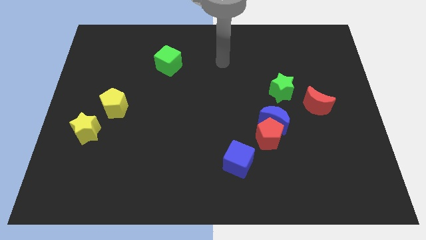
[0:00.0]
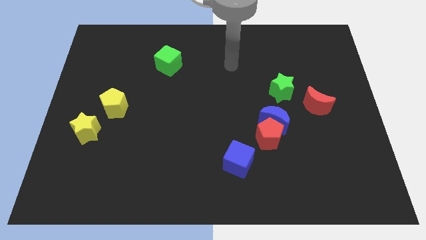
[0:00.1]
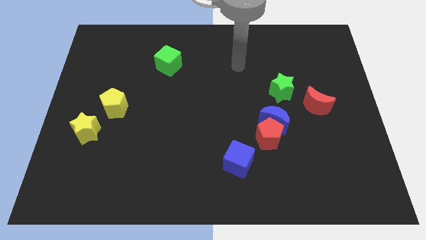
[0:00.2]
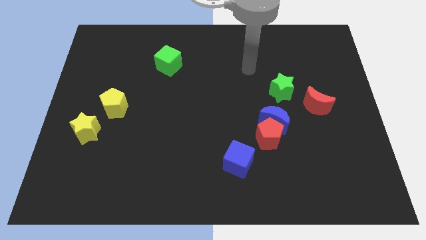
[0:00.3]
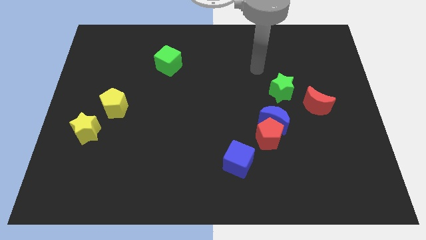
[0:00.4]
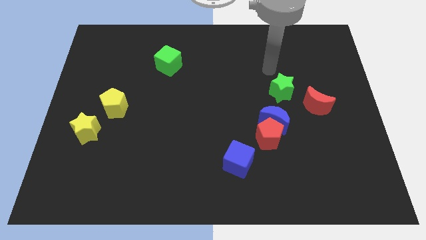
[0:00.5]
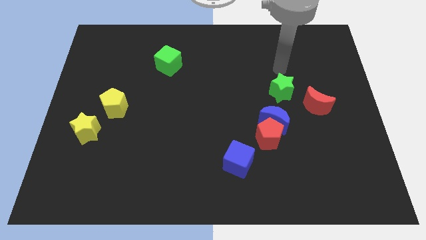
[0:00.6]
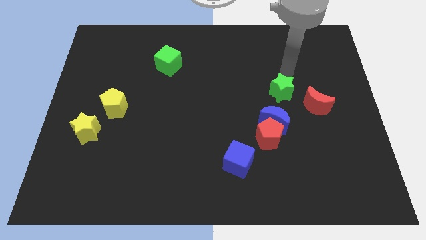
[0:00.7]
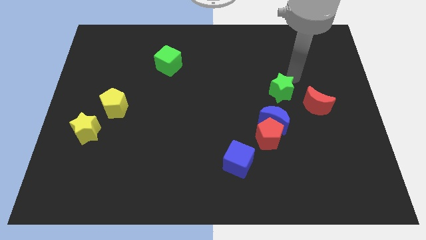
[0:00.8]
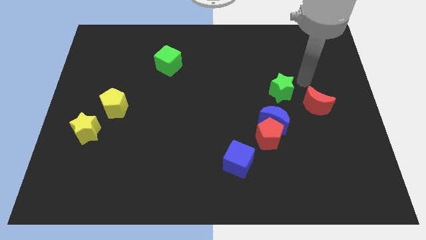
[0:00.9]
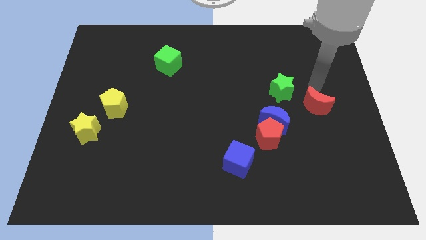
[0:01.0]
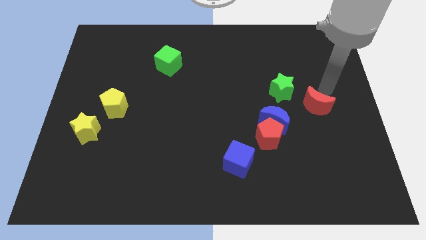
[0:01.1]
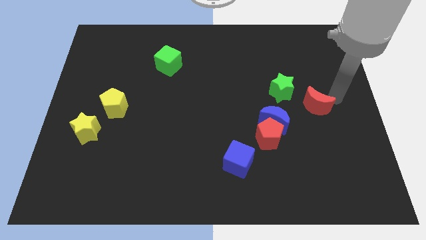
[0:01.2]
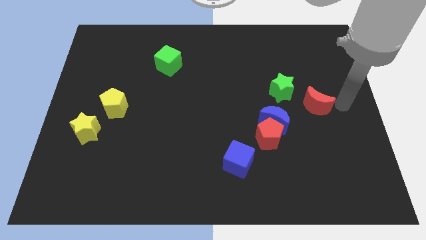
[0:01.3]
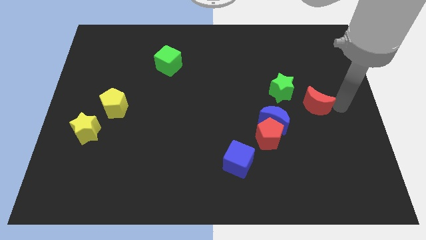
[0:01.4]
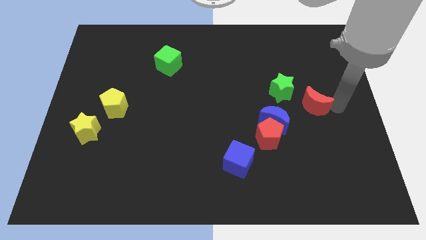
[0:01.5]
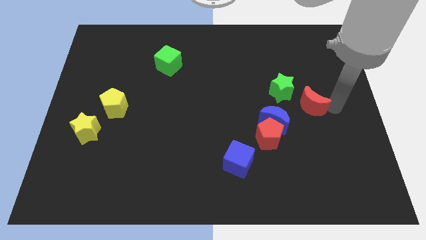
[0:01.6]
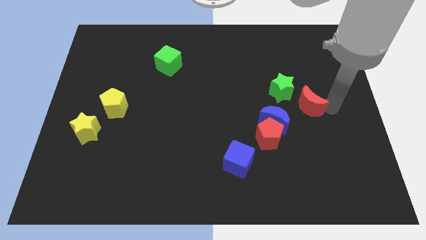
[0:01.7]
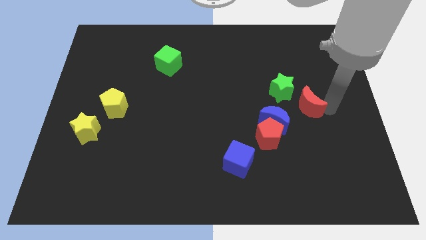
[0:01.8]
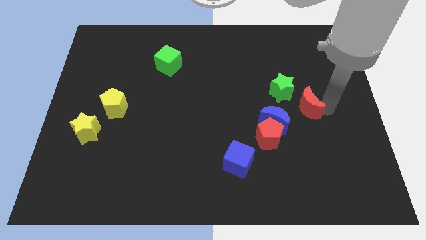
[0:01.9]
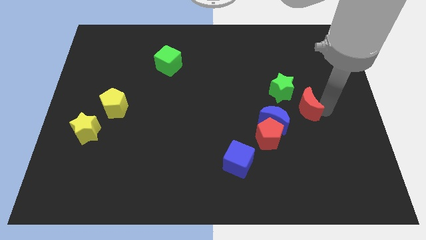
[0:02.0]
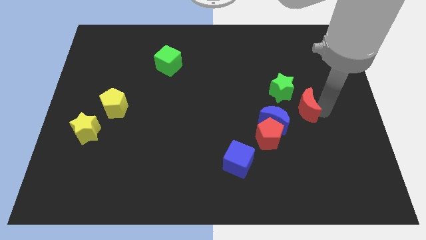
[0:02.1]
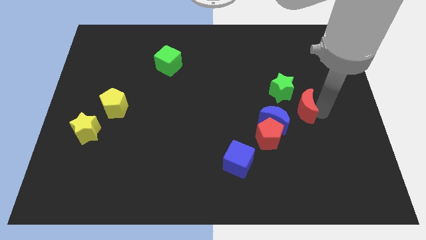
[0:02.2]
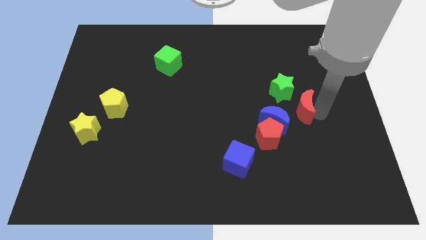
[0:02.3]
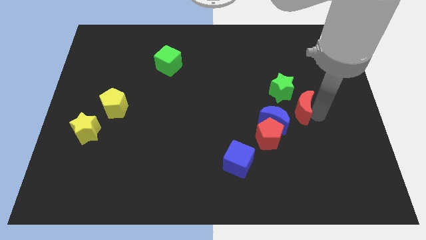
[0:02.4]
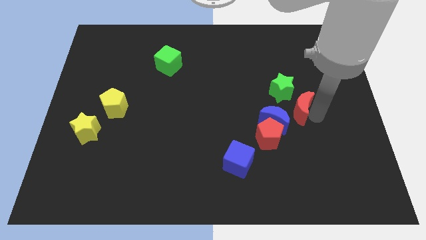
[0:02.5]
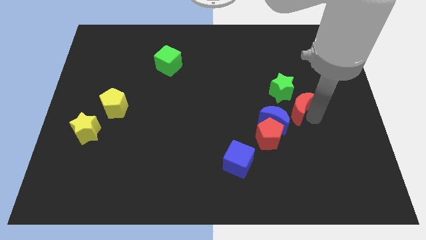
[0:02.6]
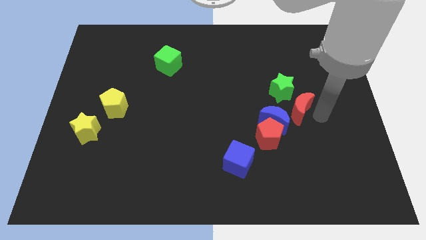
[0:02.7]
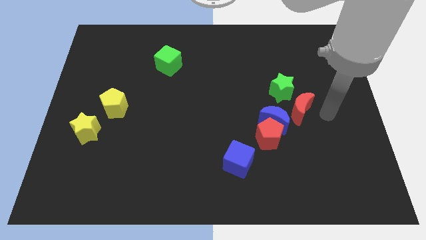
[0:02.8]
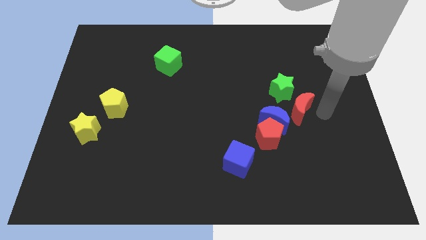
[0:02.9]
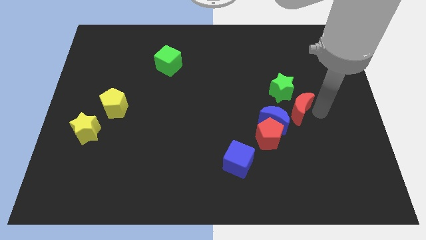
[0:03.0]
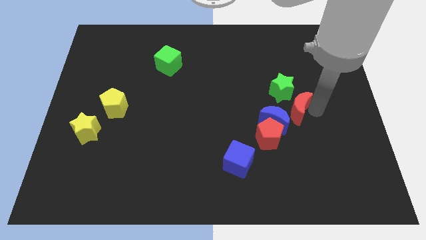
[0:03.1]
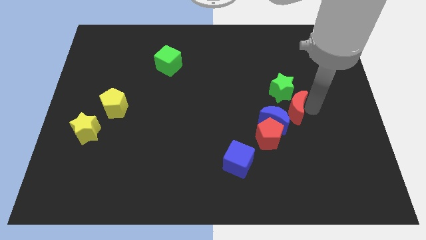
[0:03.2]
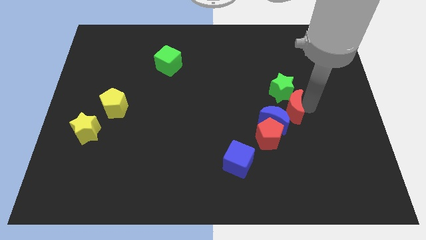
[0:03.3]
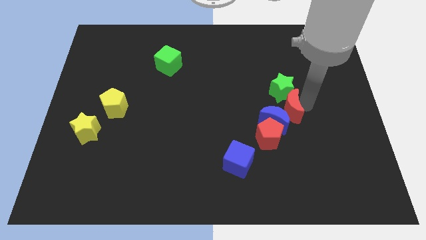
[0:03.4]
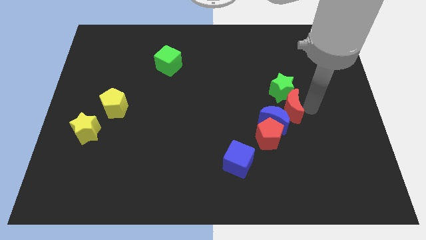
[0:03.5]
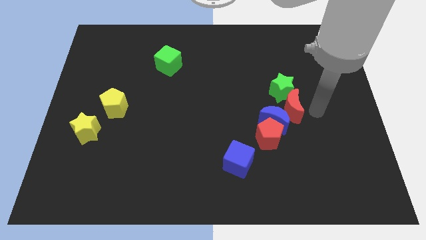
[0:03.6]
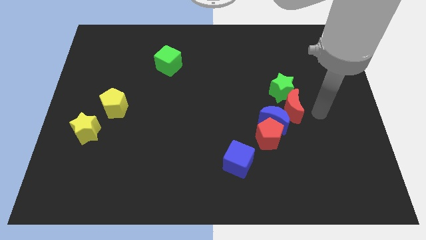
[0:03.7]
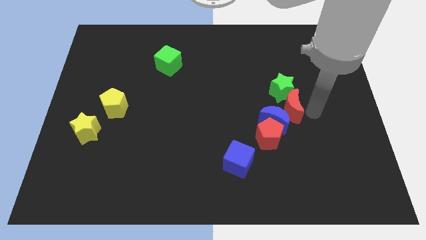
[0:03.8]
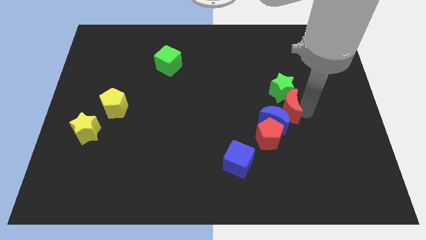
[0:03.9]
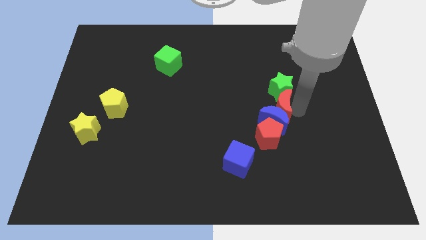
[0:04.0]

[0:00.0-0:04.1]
slide the red moon a bit to the left

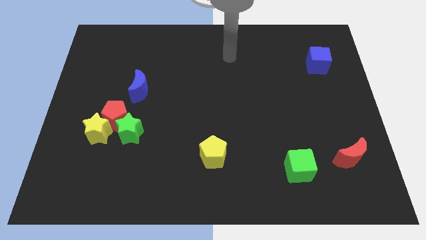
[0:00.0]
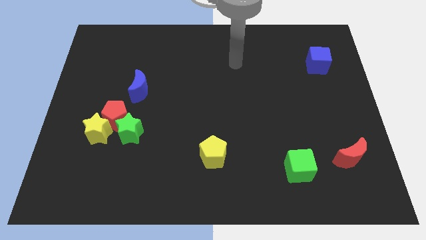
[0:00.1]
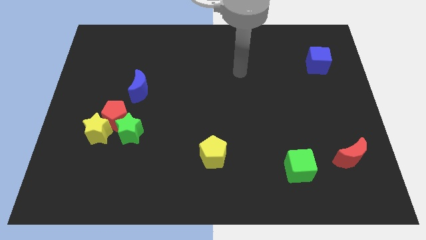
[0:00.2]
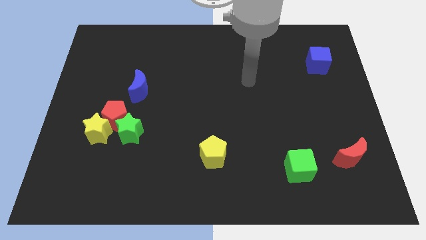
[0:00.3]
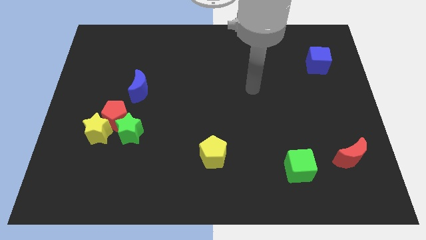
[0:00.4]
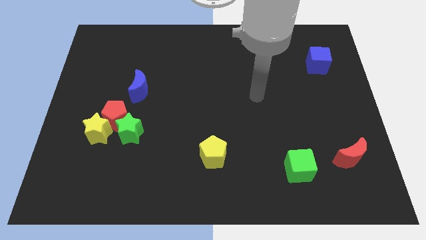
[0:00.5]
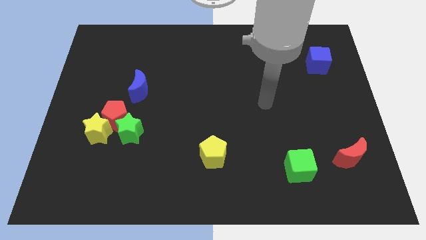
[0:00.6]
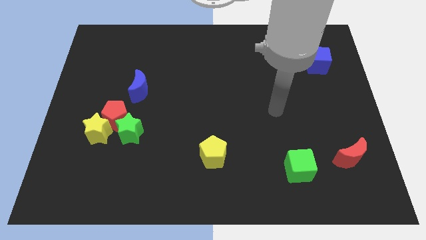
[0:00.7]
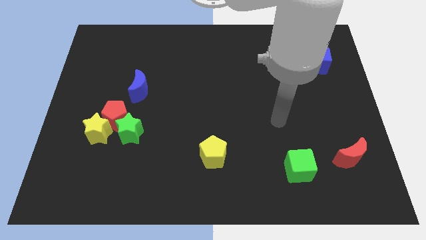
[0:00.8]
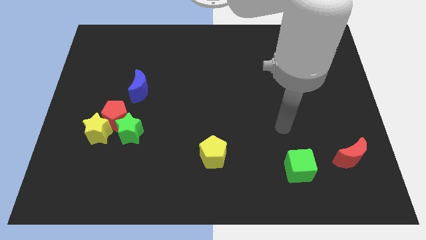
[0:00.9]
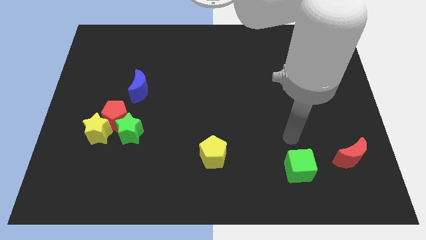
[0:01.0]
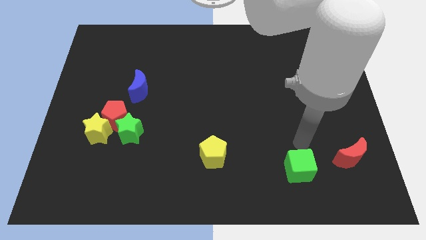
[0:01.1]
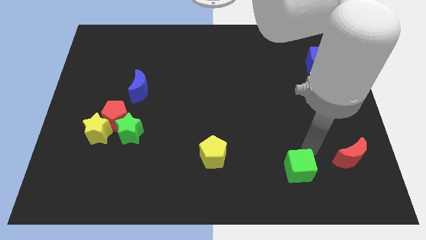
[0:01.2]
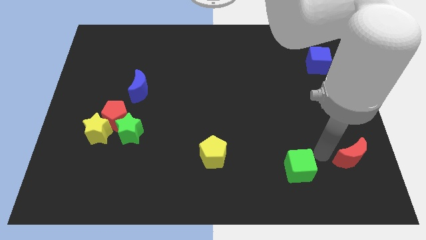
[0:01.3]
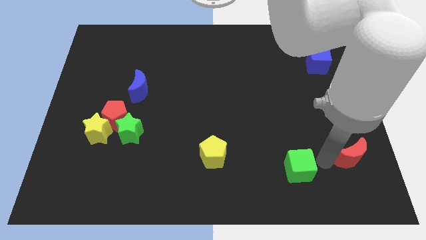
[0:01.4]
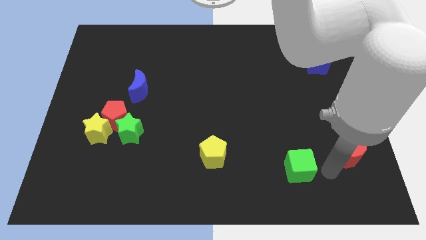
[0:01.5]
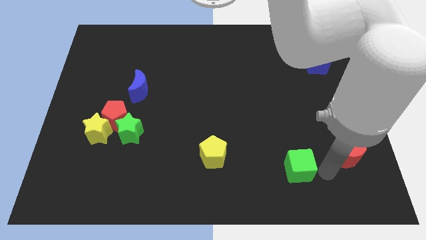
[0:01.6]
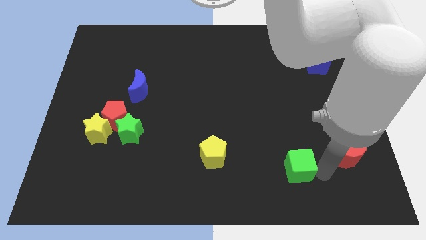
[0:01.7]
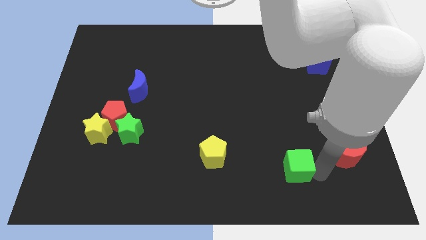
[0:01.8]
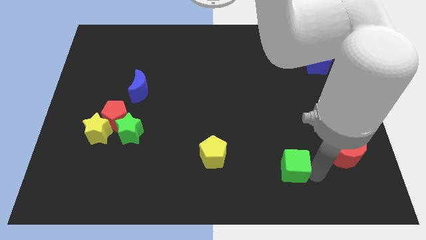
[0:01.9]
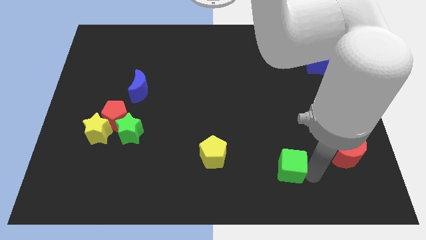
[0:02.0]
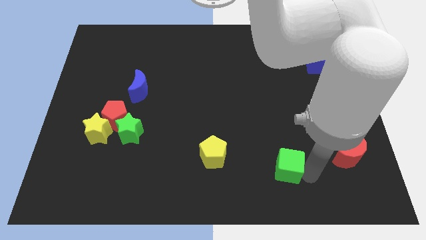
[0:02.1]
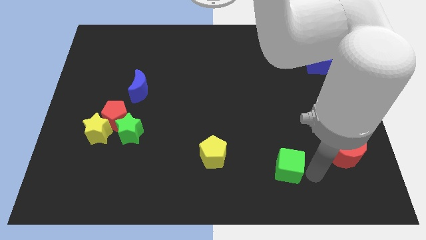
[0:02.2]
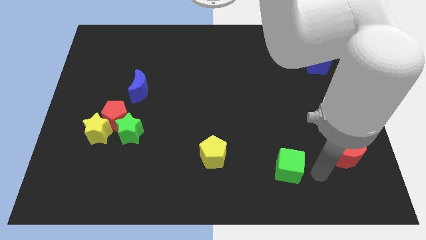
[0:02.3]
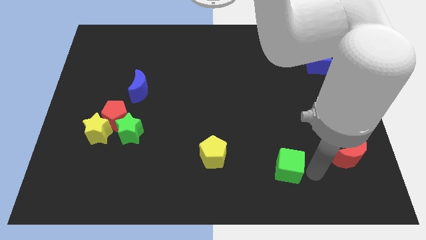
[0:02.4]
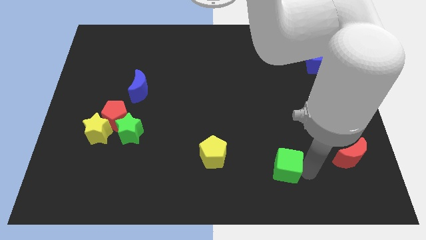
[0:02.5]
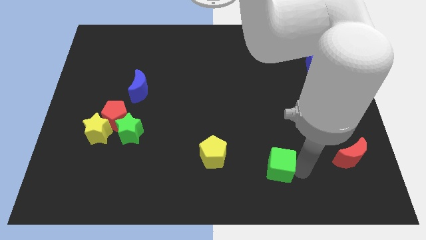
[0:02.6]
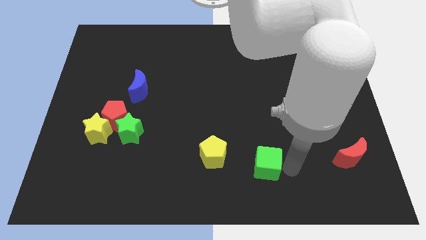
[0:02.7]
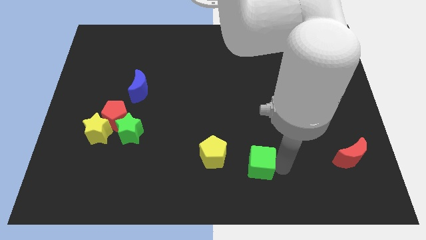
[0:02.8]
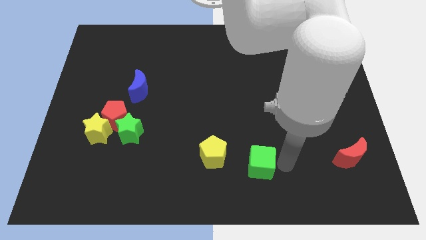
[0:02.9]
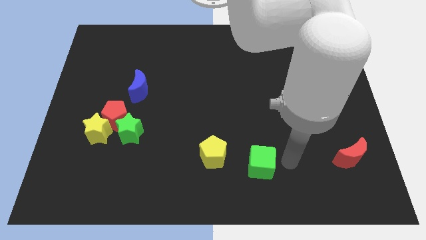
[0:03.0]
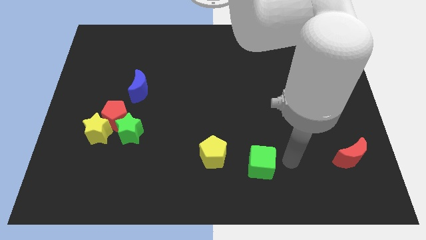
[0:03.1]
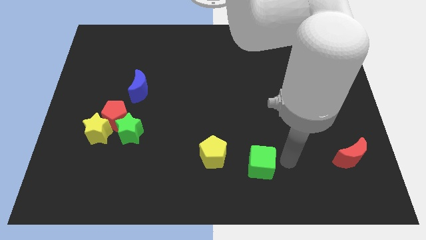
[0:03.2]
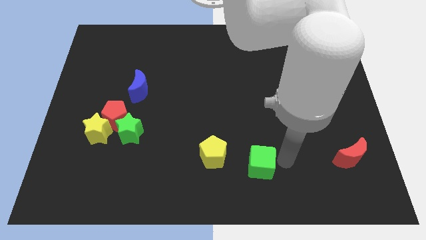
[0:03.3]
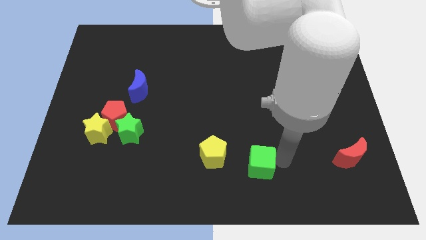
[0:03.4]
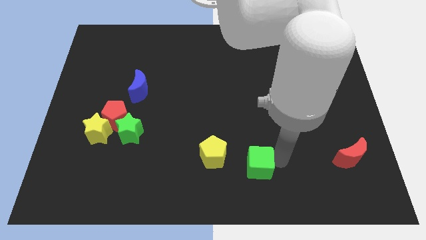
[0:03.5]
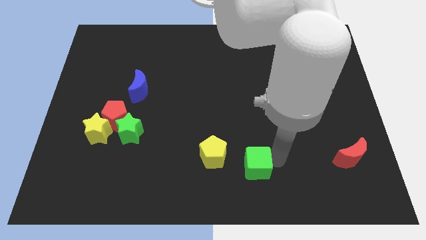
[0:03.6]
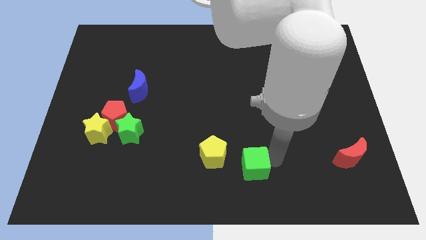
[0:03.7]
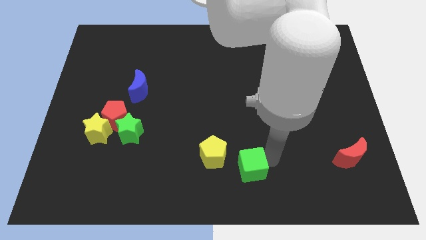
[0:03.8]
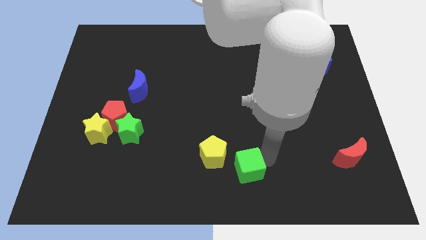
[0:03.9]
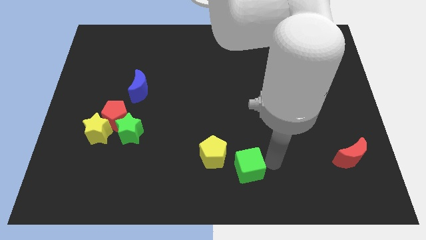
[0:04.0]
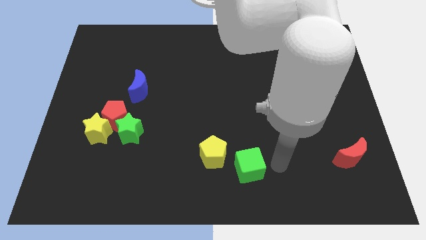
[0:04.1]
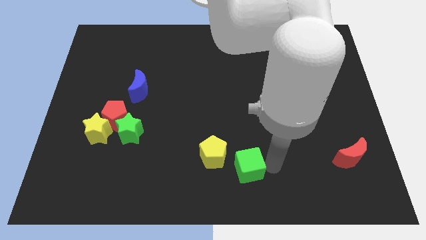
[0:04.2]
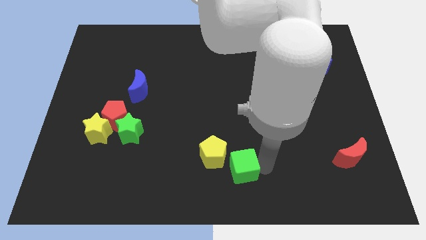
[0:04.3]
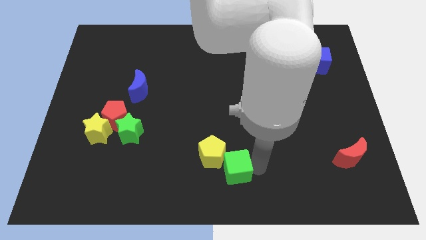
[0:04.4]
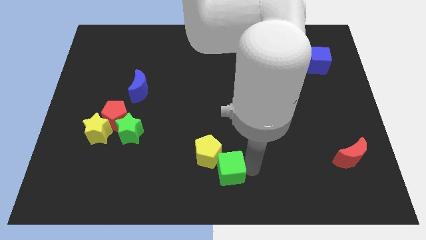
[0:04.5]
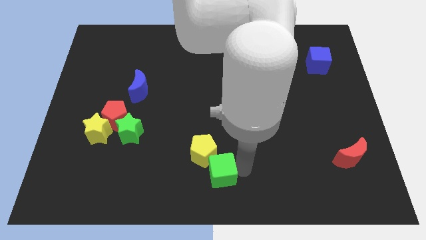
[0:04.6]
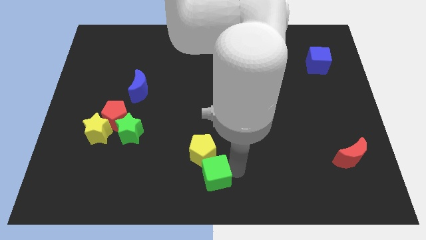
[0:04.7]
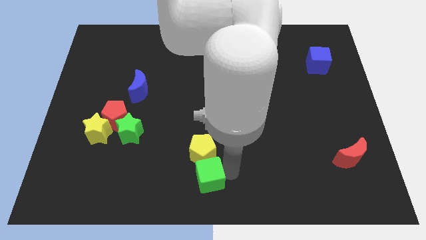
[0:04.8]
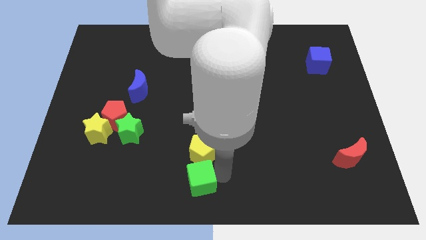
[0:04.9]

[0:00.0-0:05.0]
push the green cube to the left
